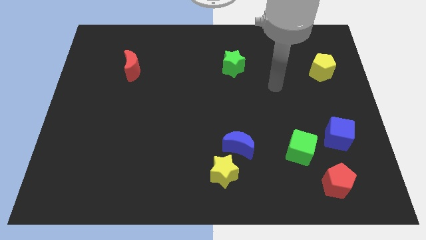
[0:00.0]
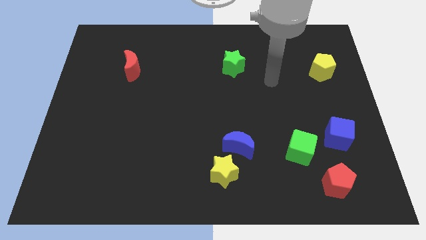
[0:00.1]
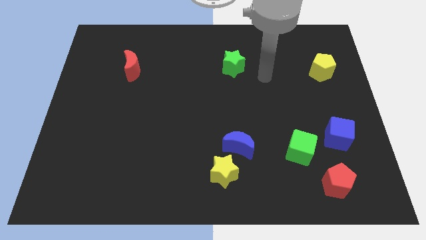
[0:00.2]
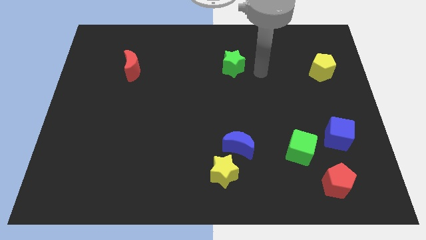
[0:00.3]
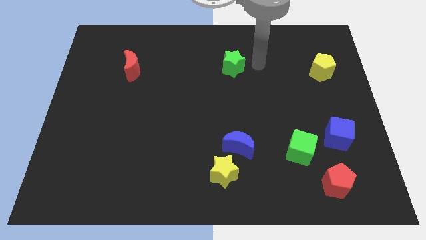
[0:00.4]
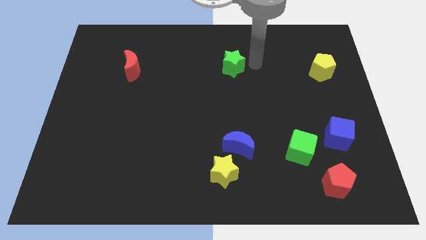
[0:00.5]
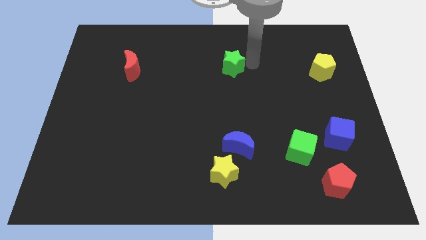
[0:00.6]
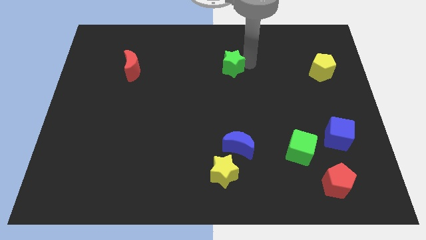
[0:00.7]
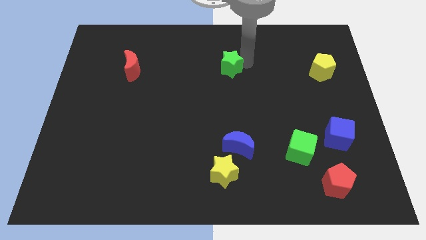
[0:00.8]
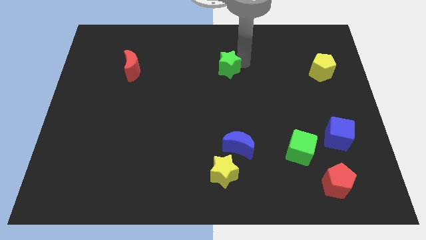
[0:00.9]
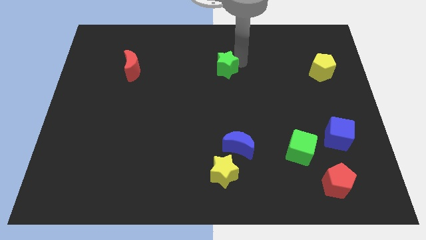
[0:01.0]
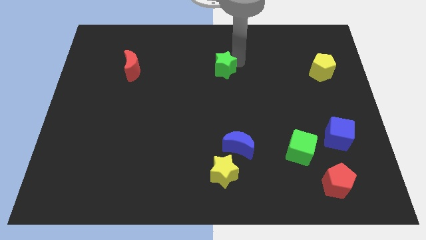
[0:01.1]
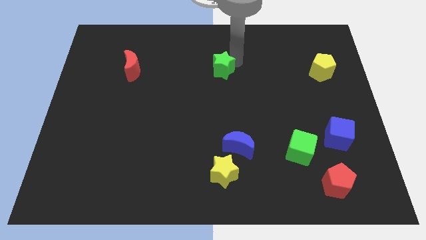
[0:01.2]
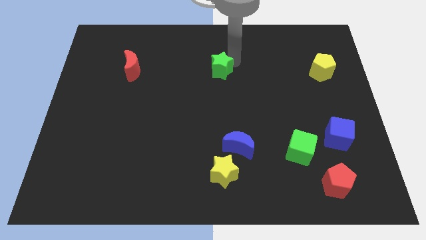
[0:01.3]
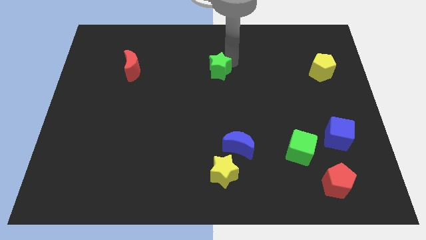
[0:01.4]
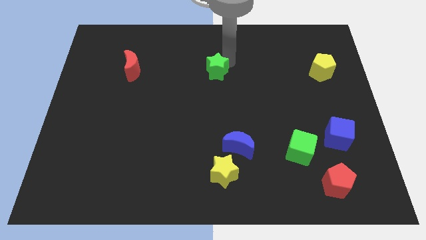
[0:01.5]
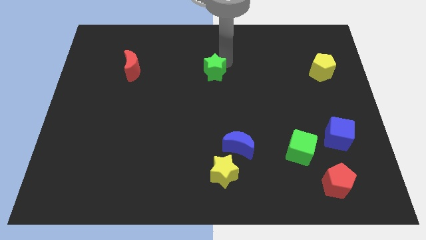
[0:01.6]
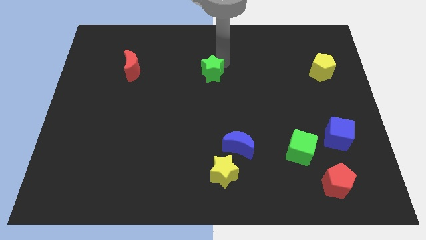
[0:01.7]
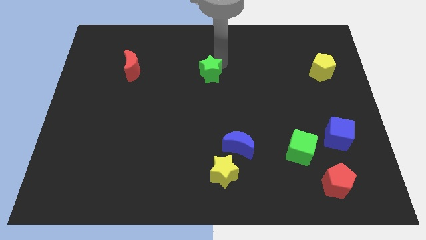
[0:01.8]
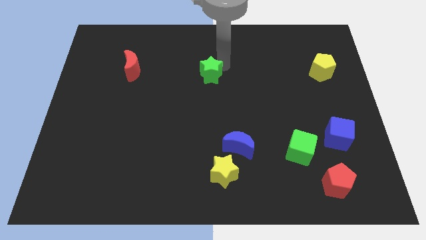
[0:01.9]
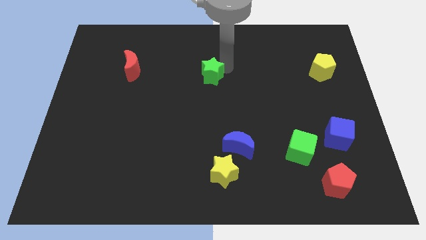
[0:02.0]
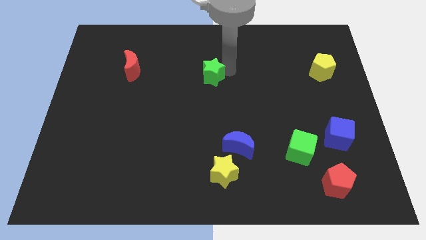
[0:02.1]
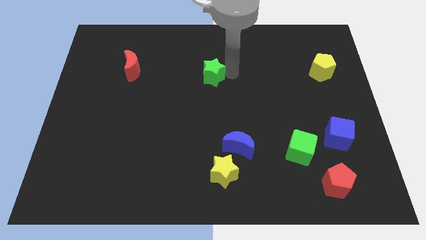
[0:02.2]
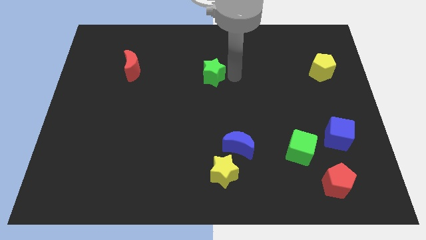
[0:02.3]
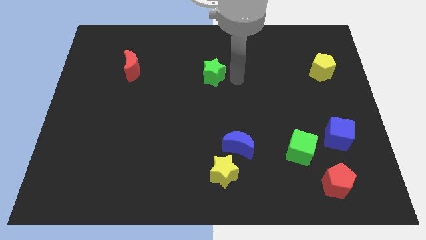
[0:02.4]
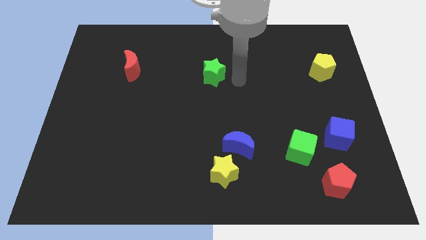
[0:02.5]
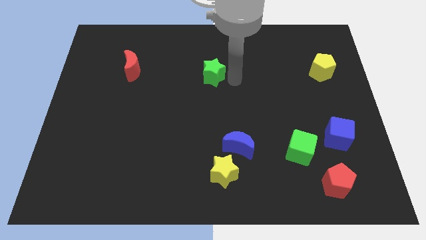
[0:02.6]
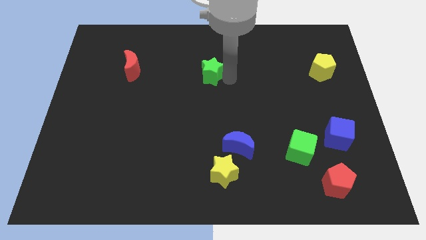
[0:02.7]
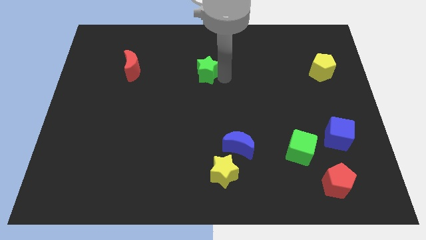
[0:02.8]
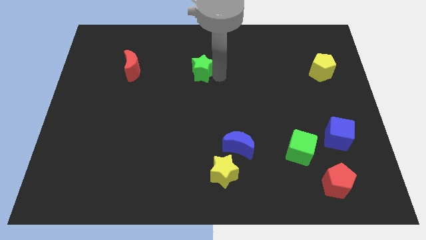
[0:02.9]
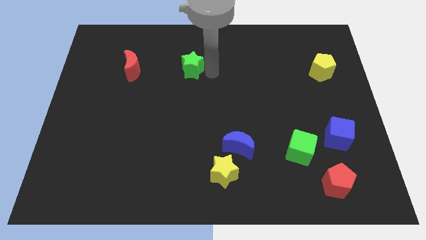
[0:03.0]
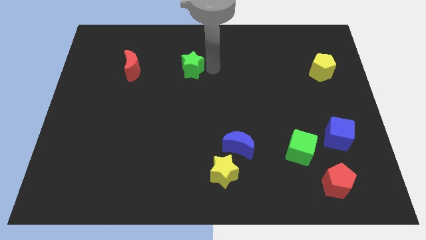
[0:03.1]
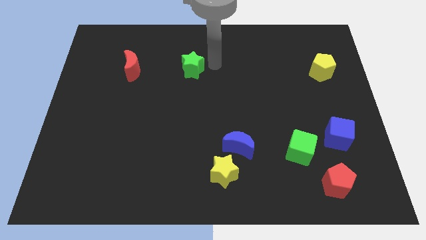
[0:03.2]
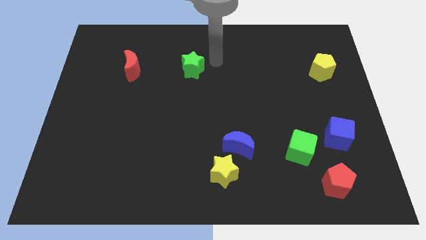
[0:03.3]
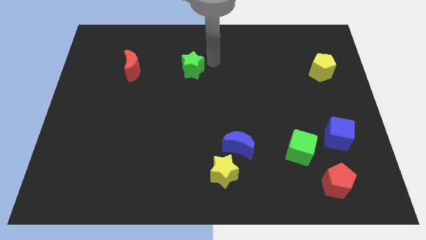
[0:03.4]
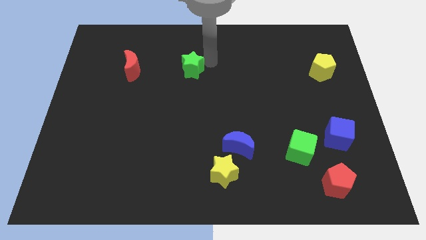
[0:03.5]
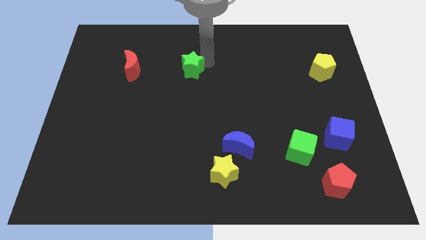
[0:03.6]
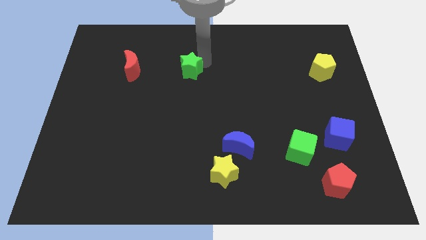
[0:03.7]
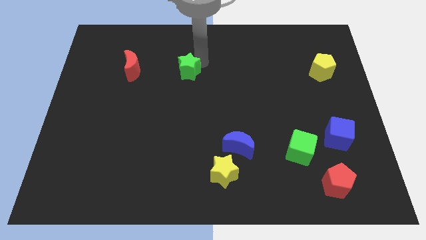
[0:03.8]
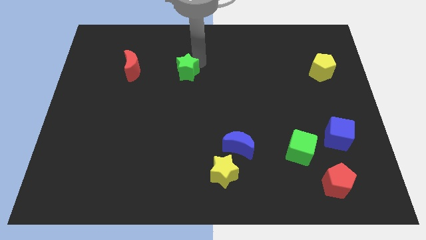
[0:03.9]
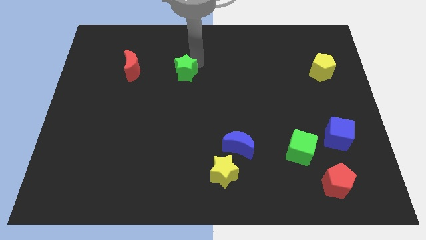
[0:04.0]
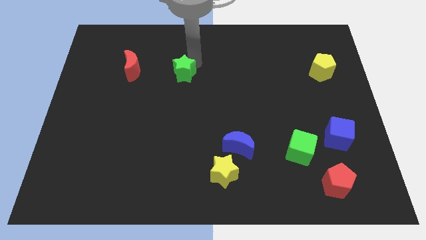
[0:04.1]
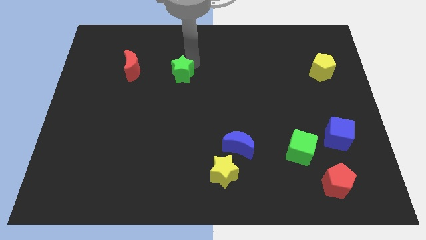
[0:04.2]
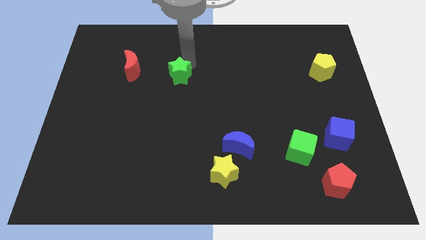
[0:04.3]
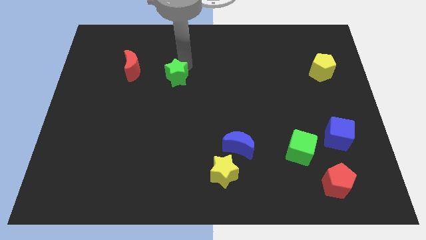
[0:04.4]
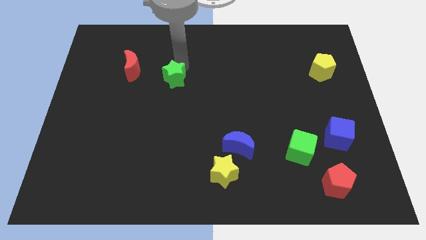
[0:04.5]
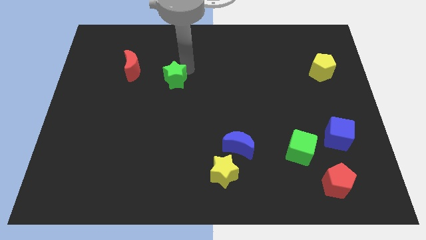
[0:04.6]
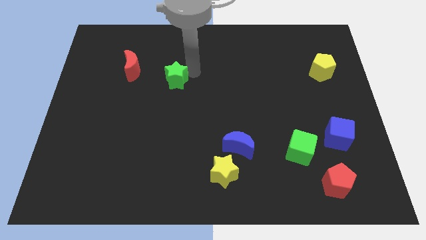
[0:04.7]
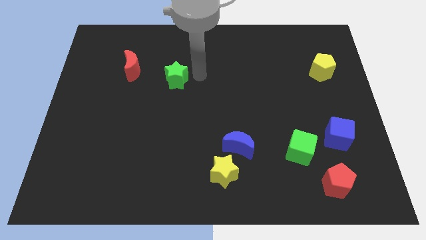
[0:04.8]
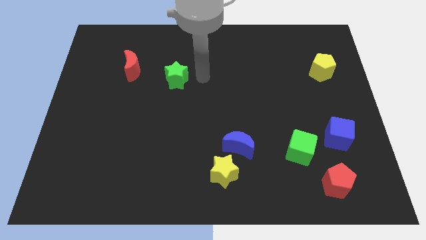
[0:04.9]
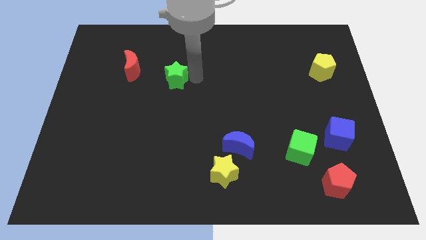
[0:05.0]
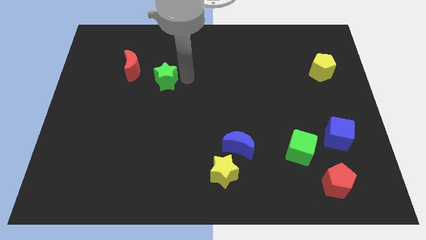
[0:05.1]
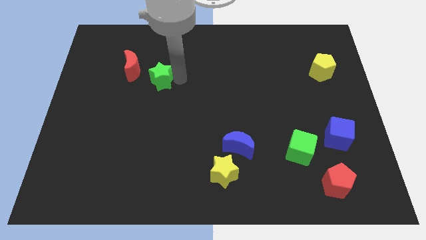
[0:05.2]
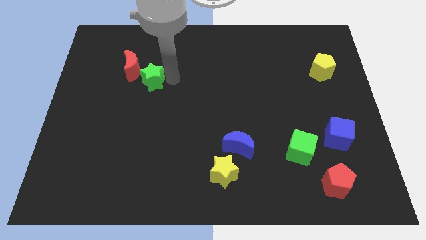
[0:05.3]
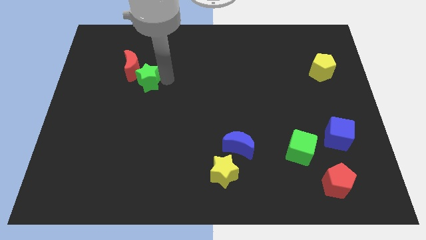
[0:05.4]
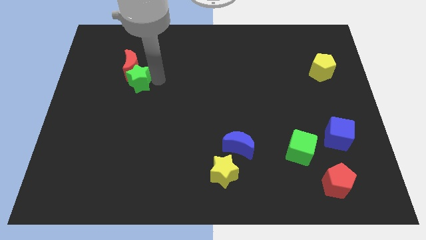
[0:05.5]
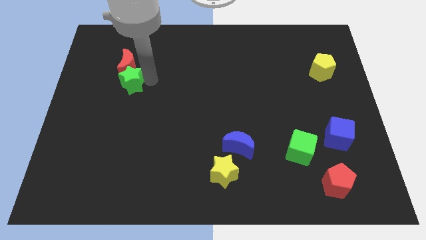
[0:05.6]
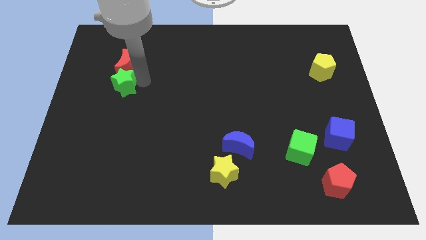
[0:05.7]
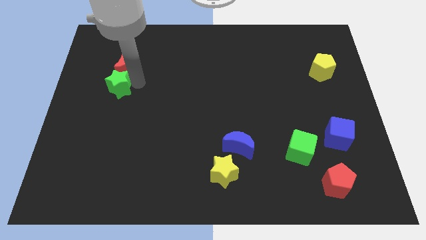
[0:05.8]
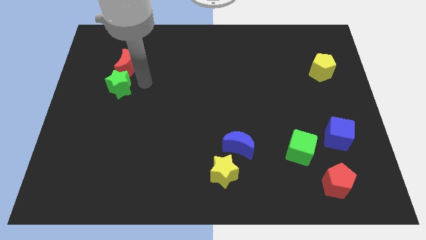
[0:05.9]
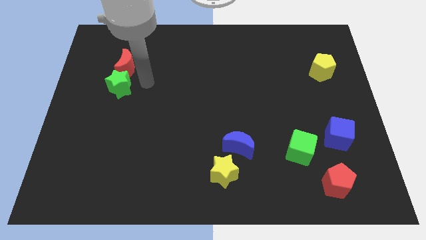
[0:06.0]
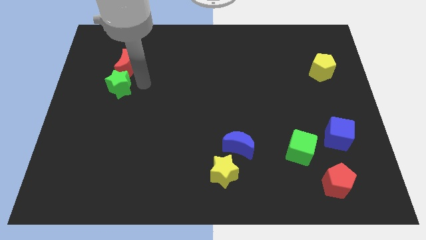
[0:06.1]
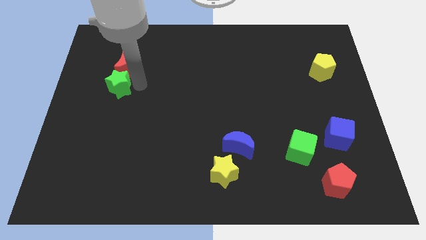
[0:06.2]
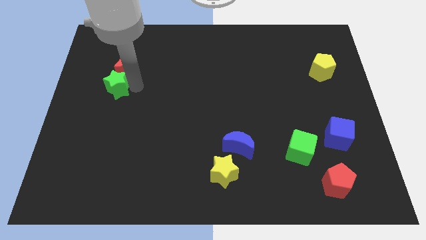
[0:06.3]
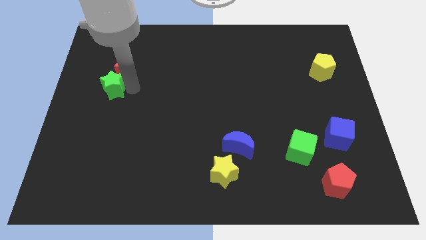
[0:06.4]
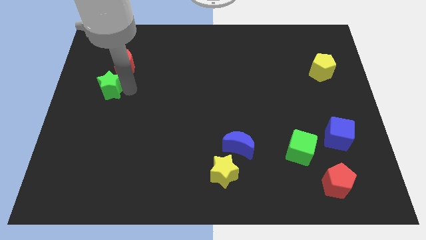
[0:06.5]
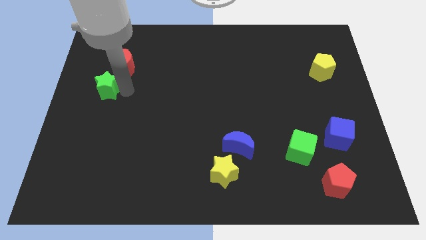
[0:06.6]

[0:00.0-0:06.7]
slide the green star to the center left
